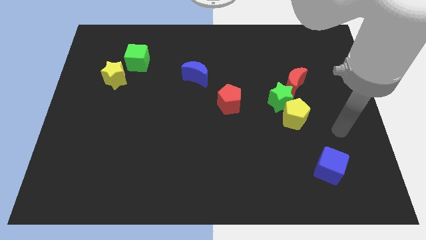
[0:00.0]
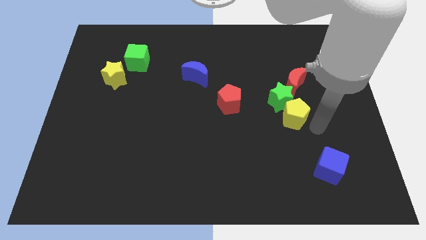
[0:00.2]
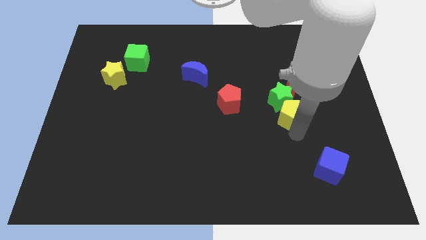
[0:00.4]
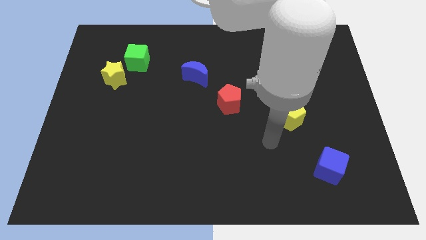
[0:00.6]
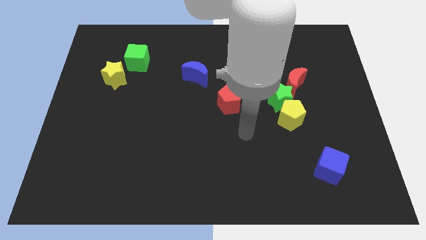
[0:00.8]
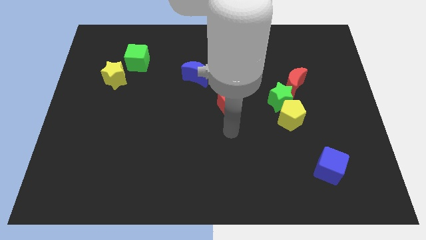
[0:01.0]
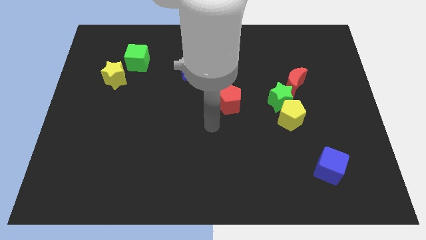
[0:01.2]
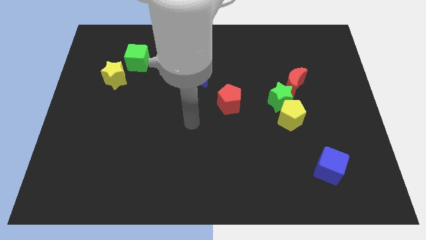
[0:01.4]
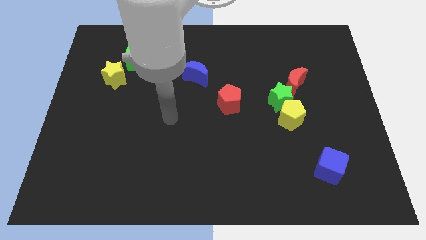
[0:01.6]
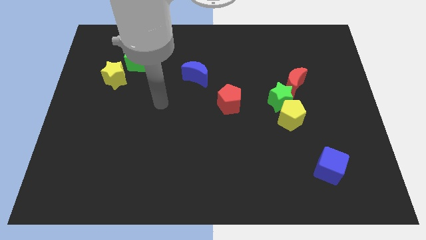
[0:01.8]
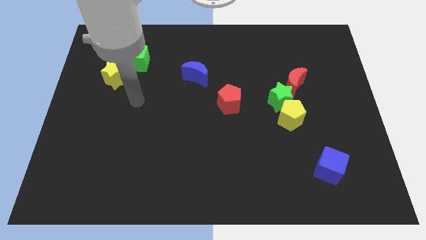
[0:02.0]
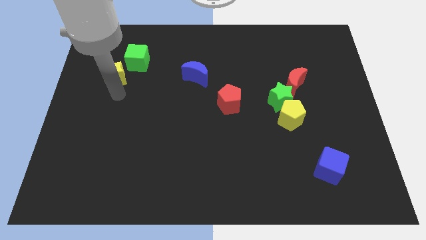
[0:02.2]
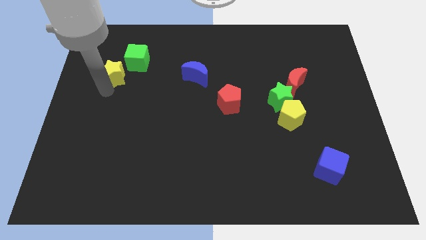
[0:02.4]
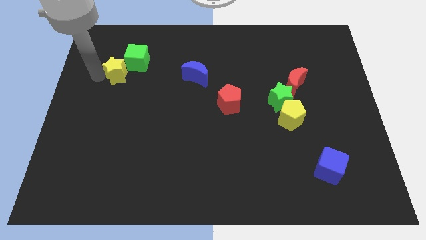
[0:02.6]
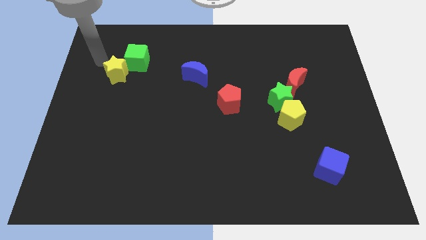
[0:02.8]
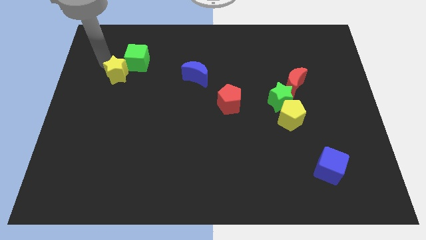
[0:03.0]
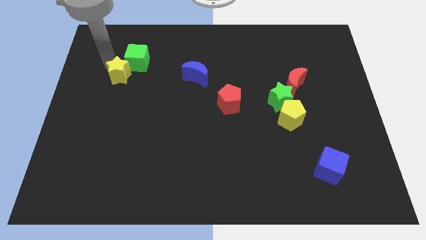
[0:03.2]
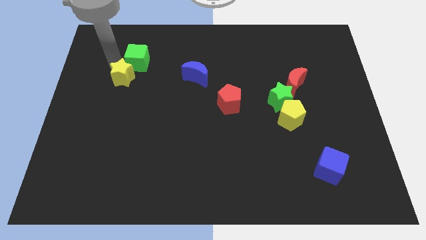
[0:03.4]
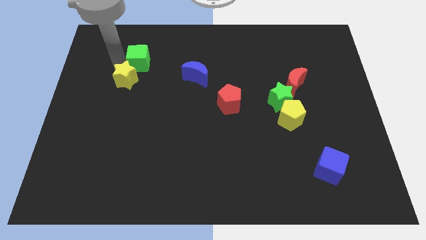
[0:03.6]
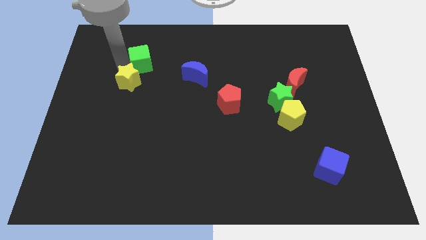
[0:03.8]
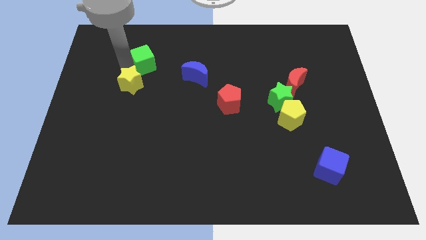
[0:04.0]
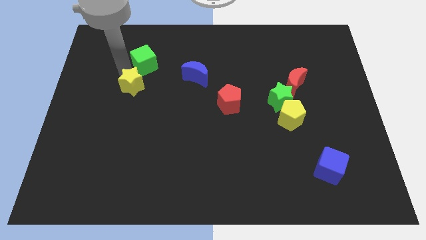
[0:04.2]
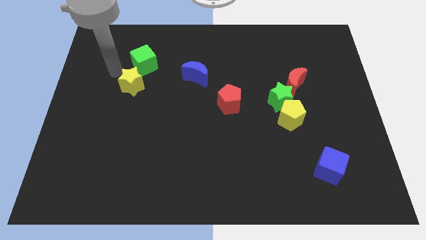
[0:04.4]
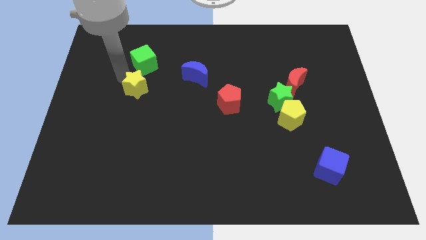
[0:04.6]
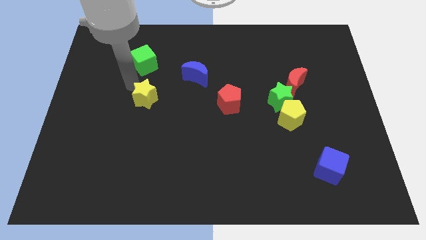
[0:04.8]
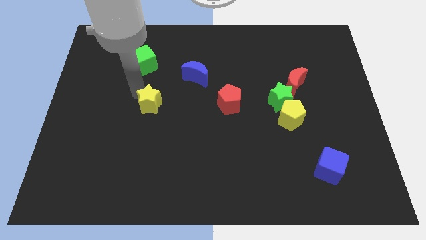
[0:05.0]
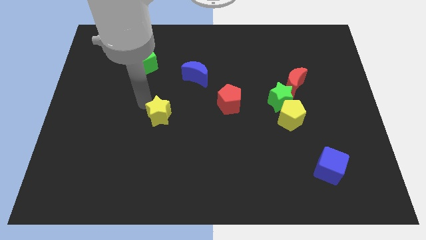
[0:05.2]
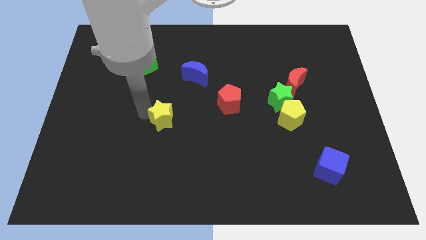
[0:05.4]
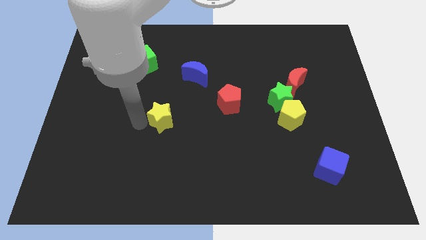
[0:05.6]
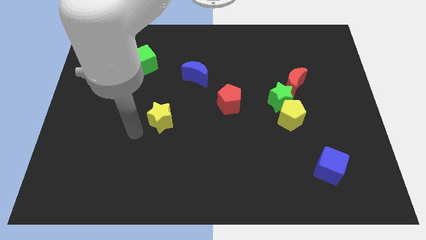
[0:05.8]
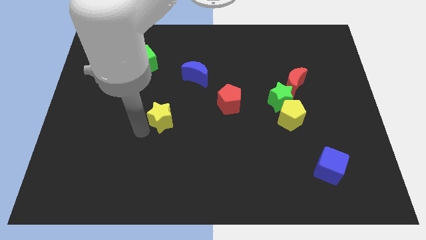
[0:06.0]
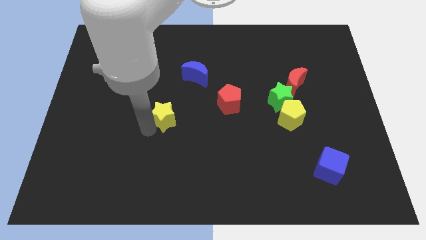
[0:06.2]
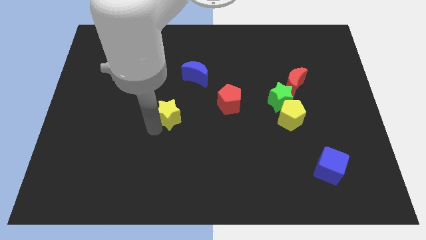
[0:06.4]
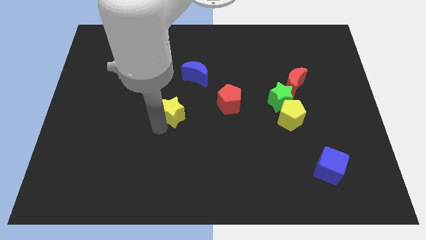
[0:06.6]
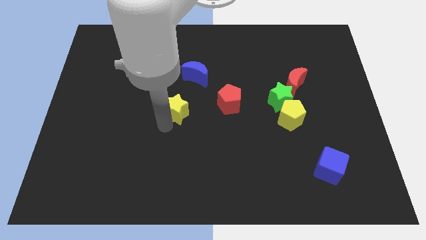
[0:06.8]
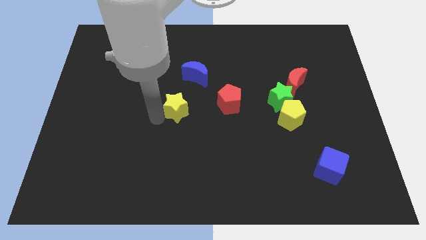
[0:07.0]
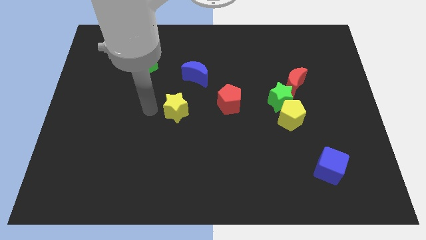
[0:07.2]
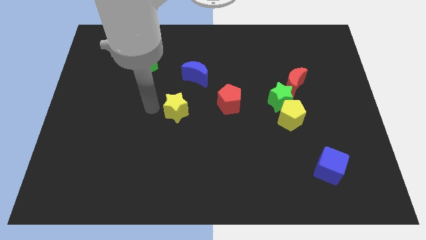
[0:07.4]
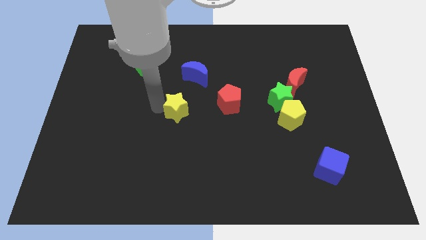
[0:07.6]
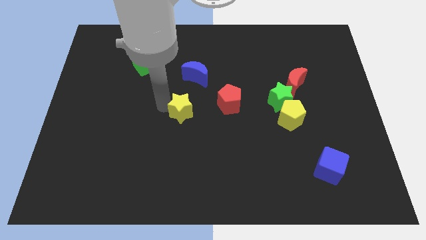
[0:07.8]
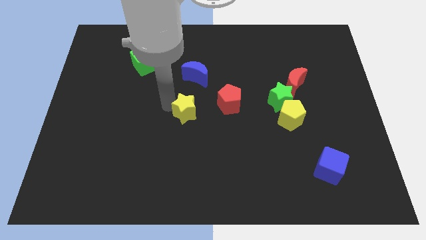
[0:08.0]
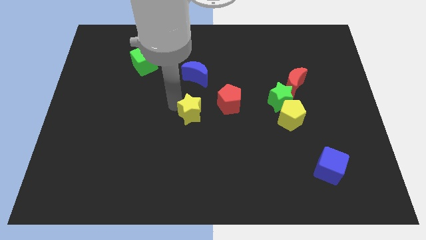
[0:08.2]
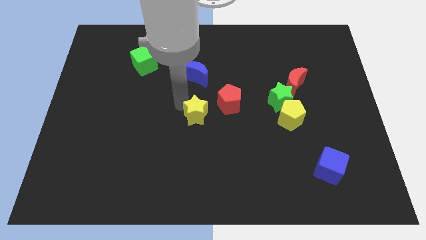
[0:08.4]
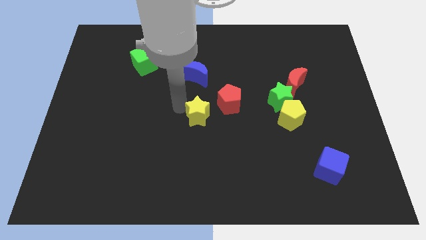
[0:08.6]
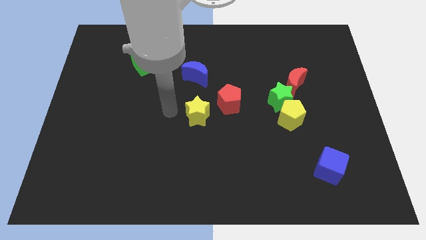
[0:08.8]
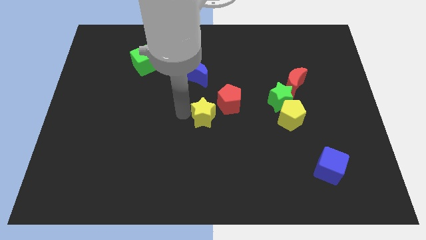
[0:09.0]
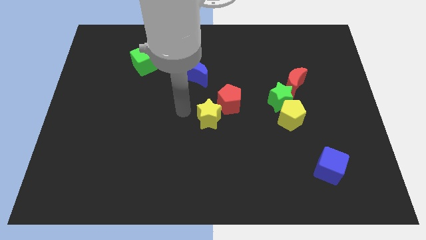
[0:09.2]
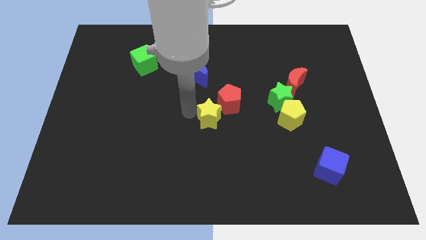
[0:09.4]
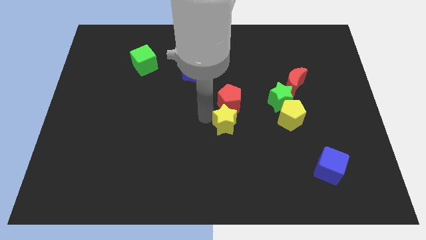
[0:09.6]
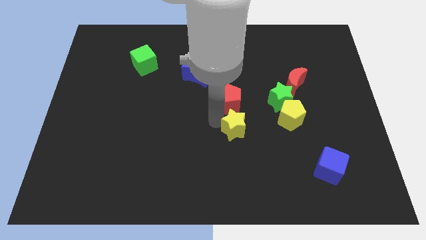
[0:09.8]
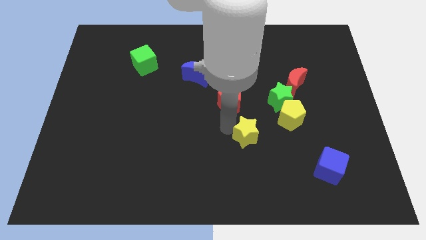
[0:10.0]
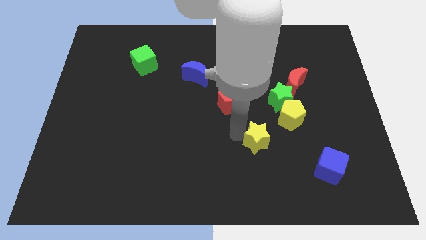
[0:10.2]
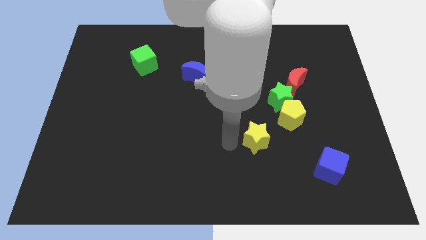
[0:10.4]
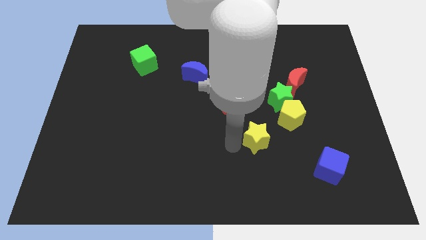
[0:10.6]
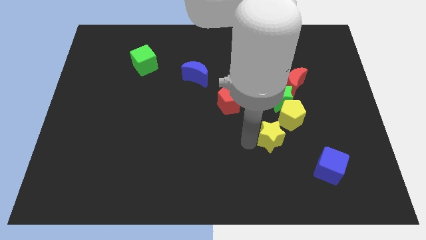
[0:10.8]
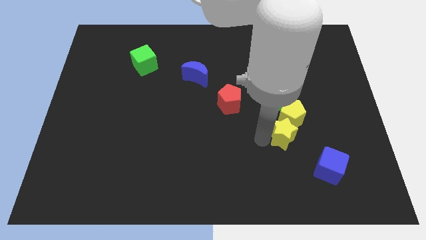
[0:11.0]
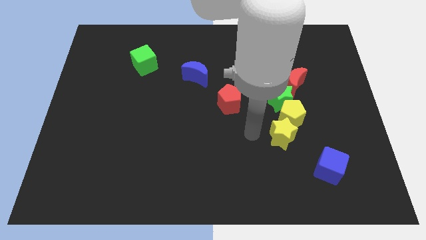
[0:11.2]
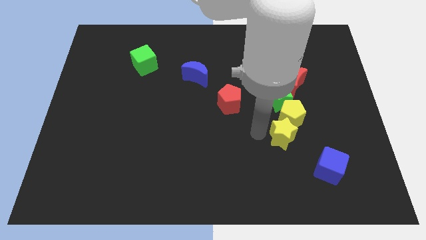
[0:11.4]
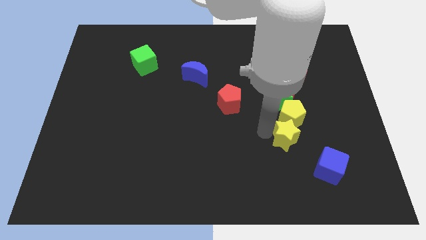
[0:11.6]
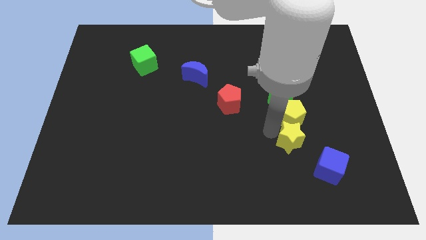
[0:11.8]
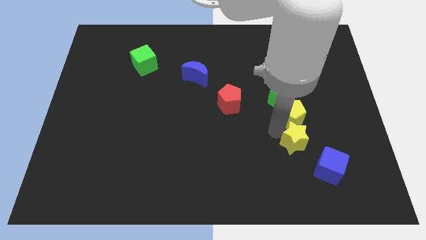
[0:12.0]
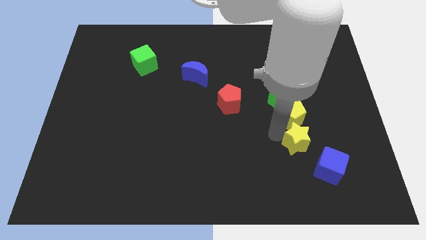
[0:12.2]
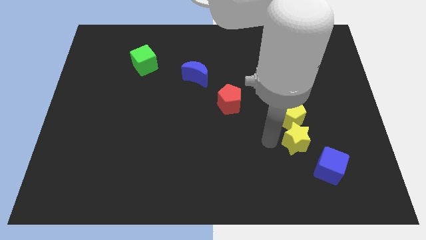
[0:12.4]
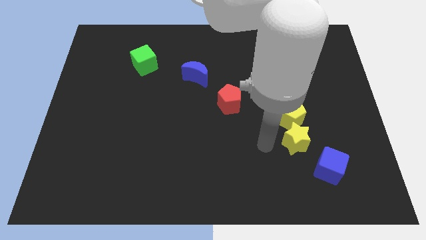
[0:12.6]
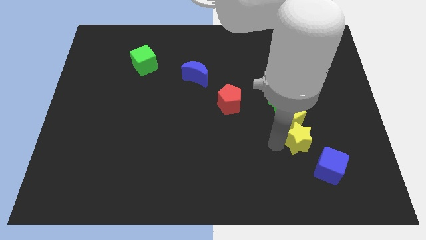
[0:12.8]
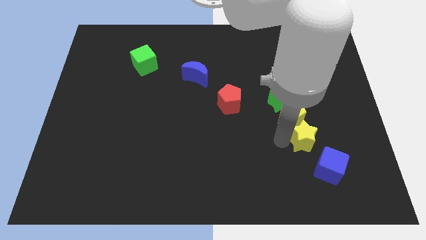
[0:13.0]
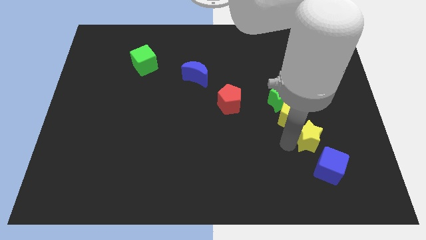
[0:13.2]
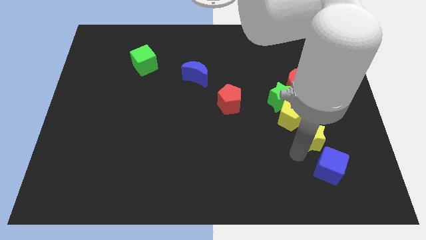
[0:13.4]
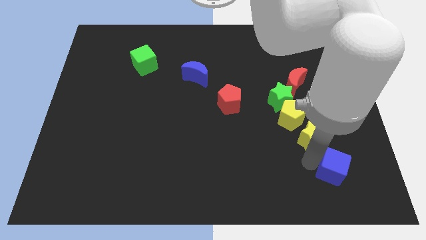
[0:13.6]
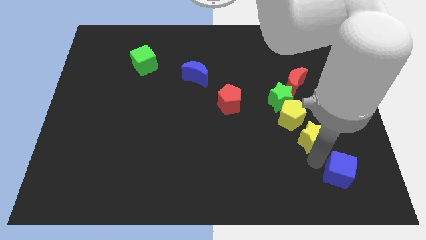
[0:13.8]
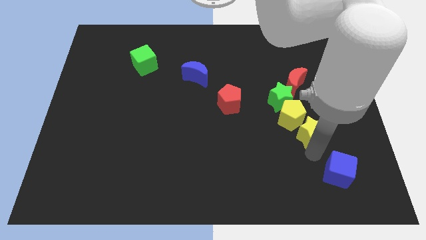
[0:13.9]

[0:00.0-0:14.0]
move the yellow star diagonally down and to the right of the green star

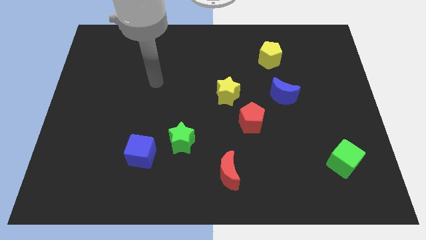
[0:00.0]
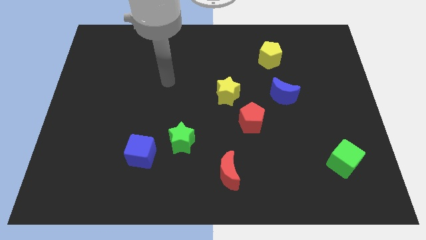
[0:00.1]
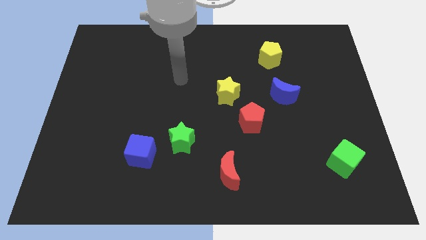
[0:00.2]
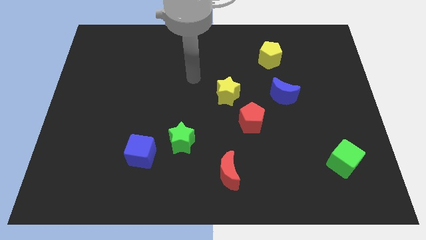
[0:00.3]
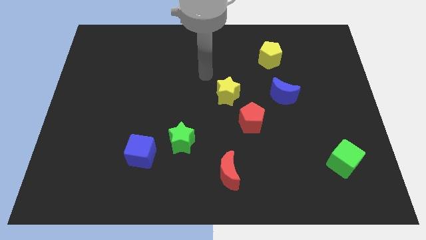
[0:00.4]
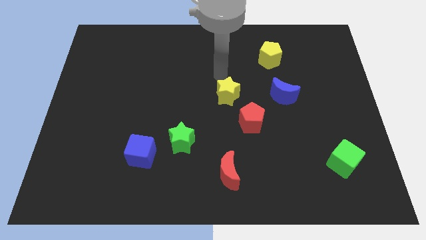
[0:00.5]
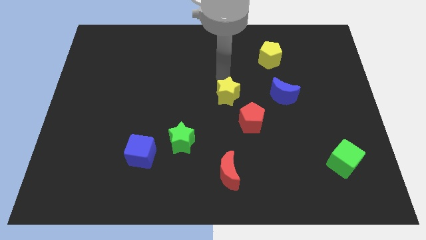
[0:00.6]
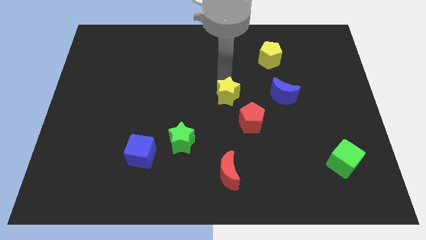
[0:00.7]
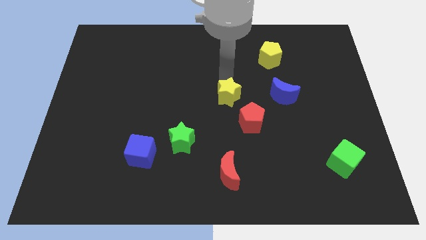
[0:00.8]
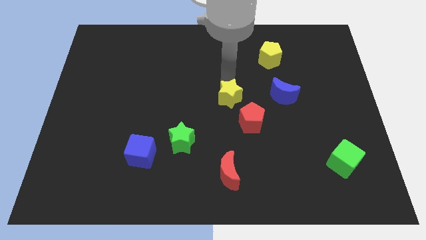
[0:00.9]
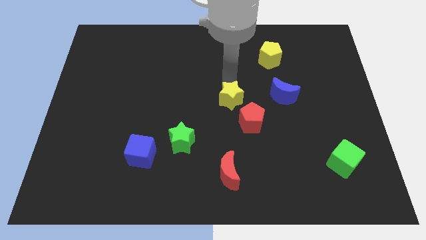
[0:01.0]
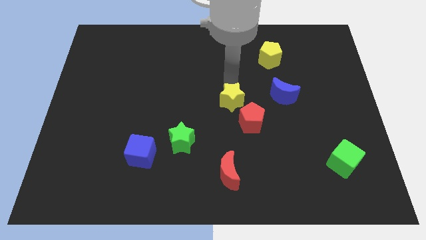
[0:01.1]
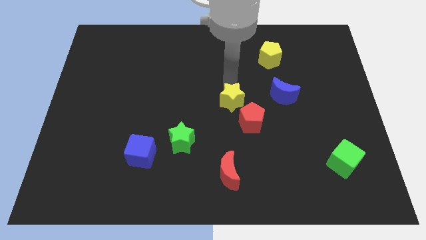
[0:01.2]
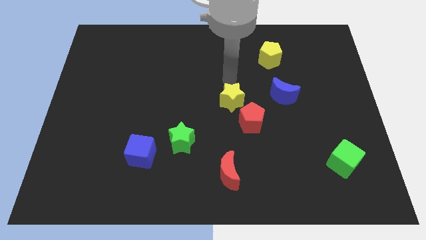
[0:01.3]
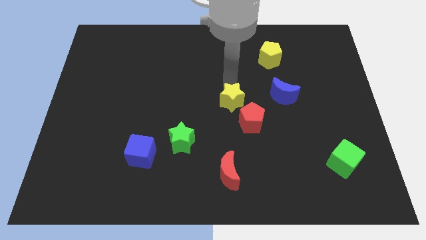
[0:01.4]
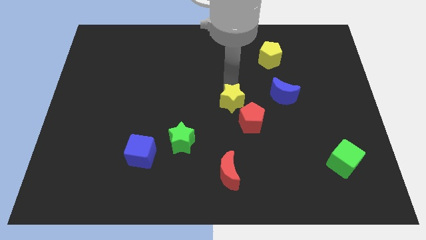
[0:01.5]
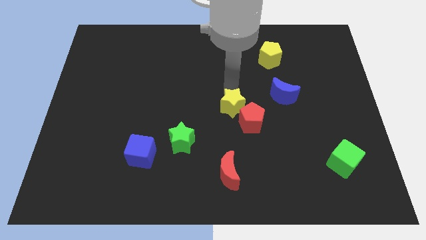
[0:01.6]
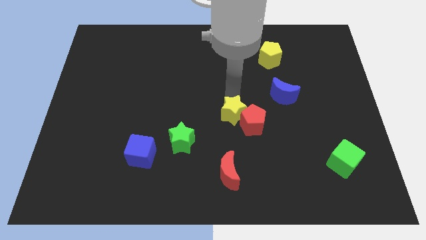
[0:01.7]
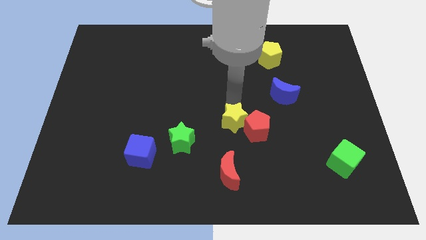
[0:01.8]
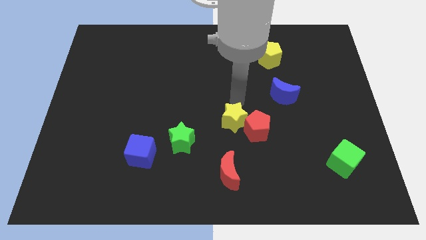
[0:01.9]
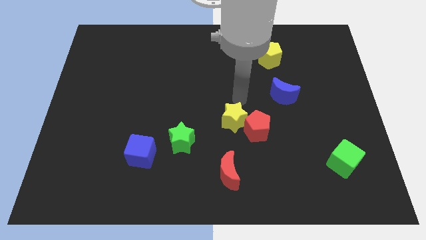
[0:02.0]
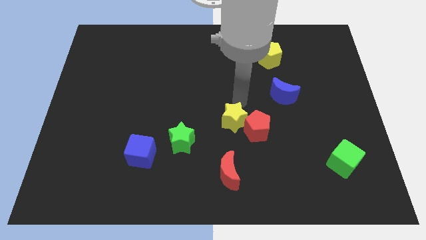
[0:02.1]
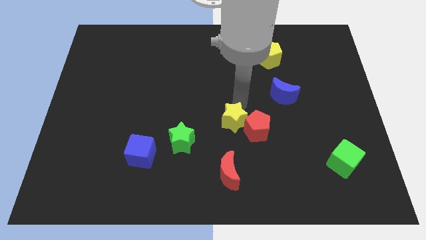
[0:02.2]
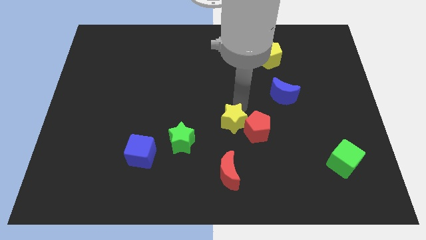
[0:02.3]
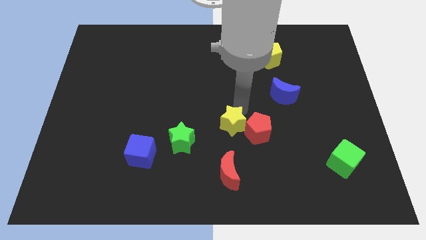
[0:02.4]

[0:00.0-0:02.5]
put the yellow star right of the green star
